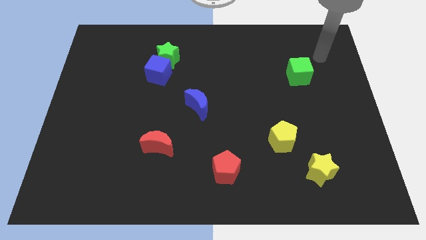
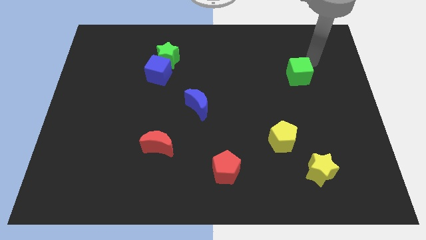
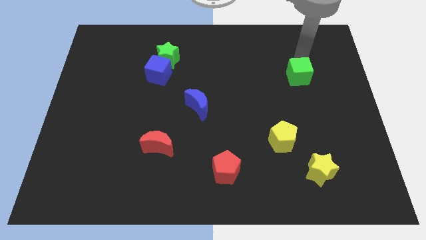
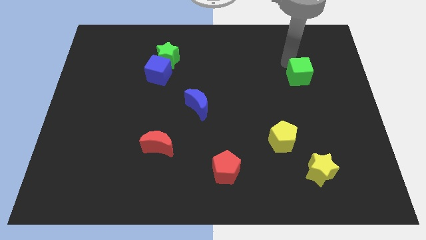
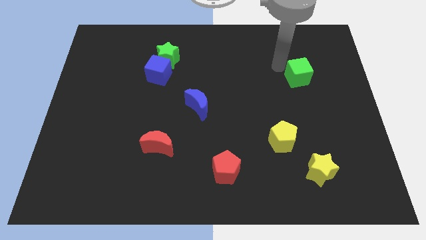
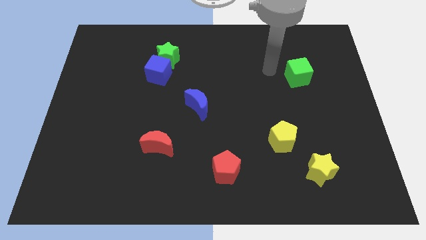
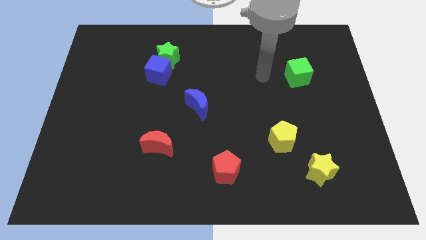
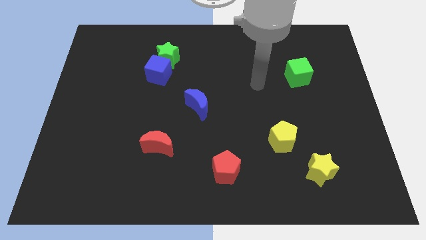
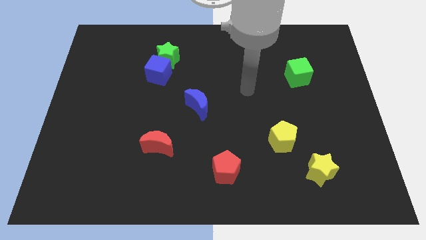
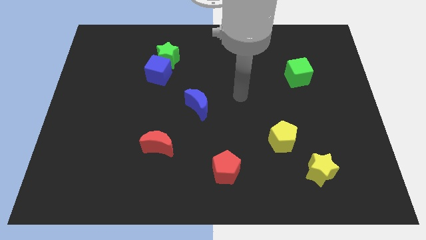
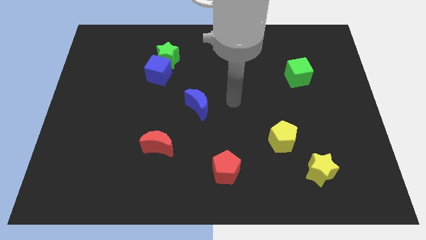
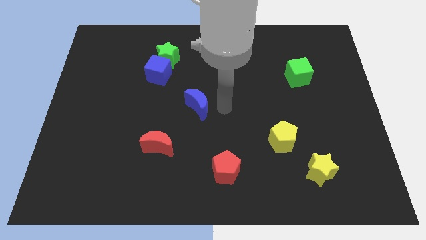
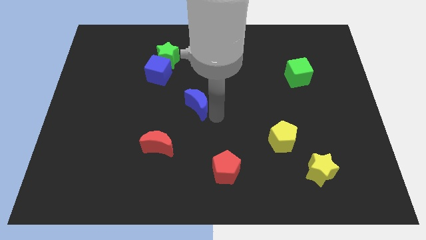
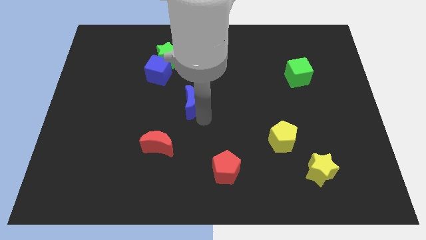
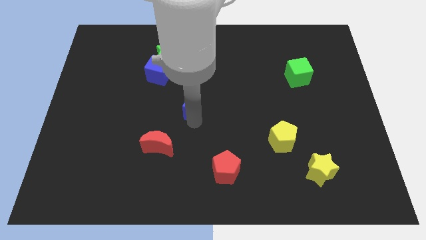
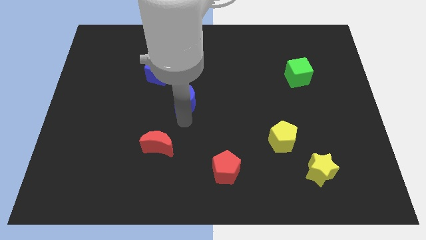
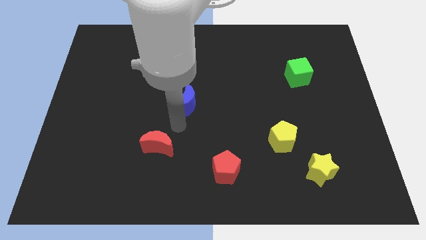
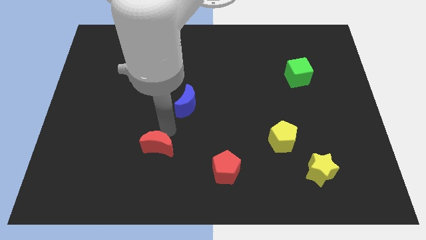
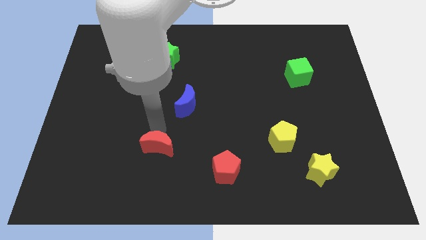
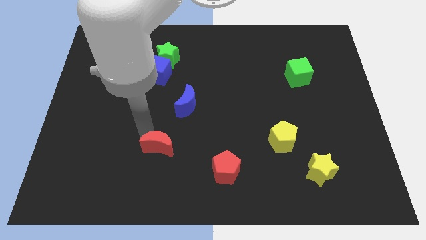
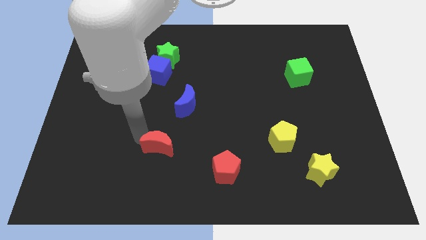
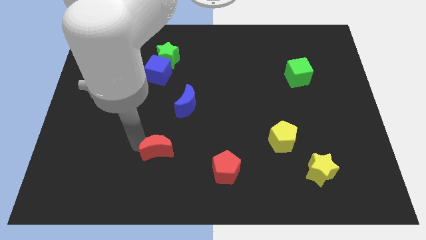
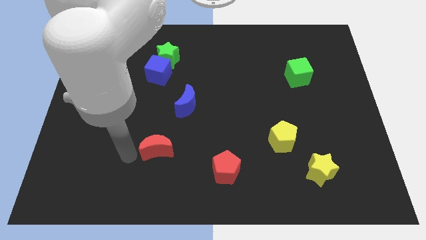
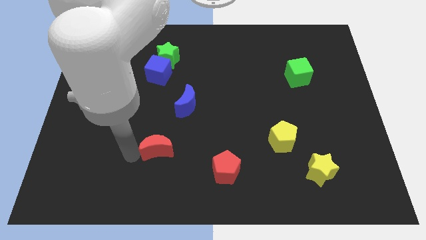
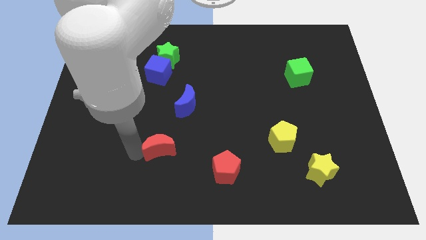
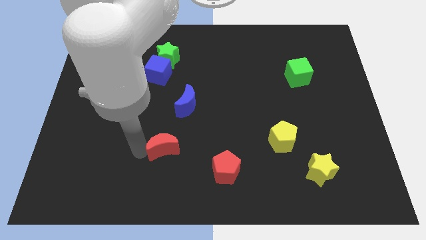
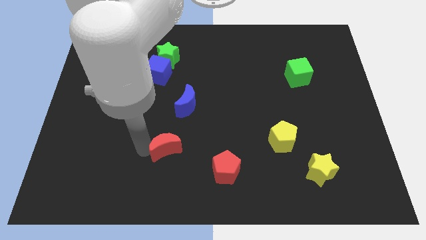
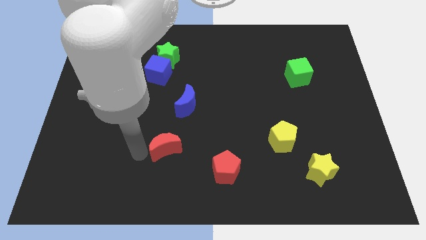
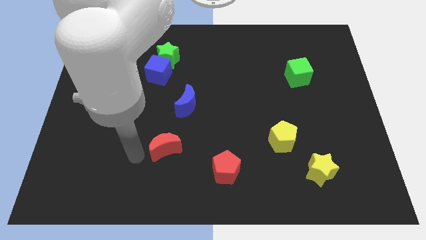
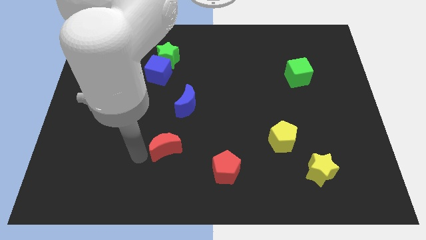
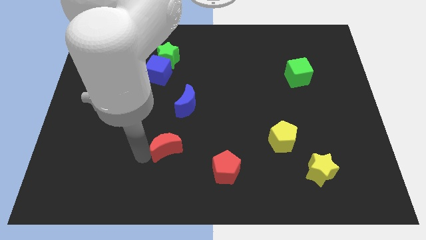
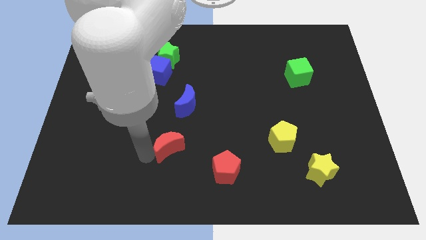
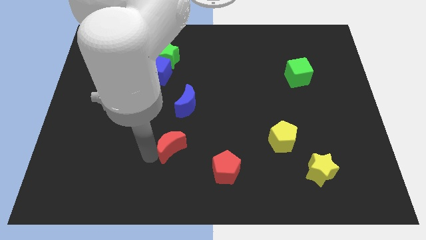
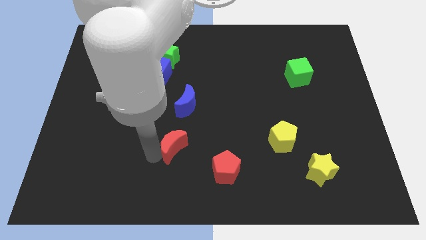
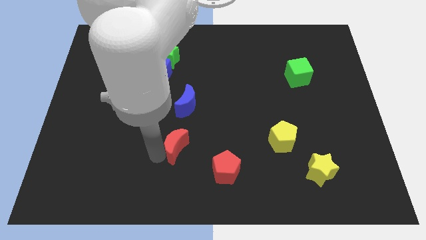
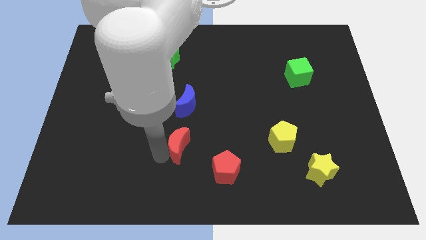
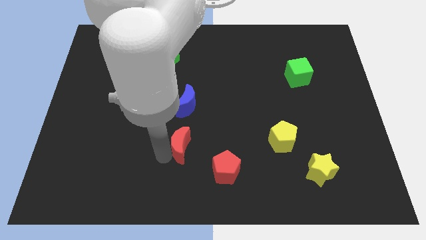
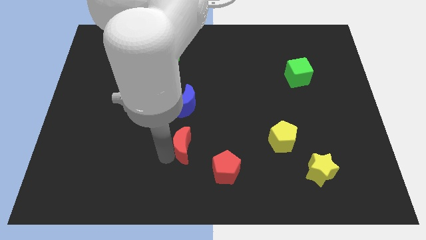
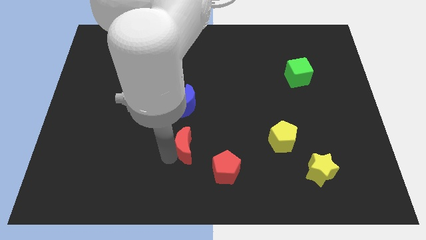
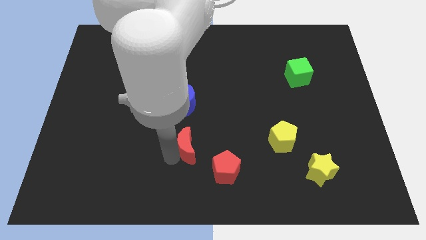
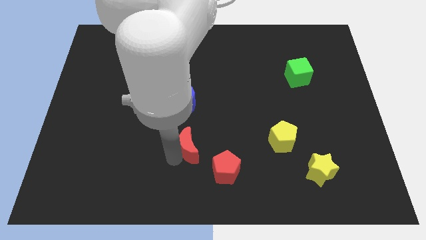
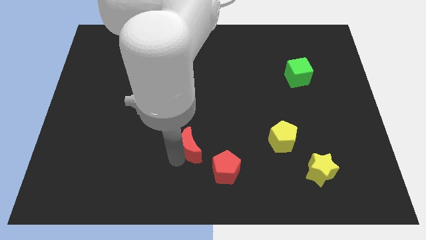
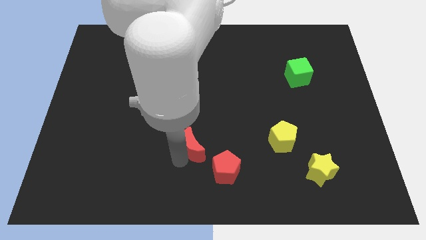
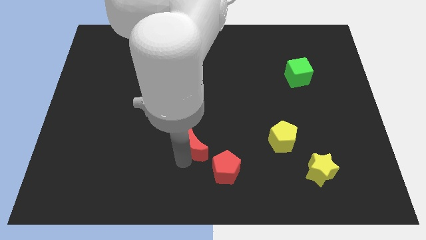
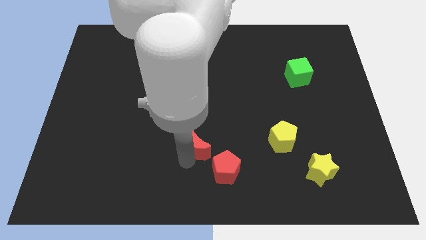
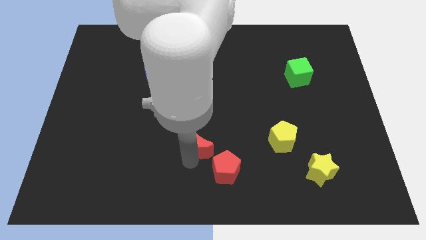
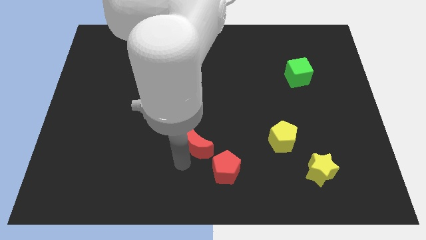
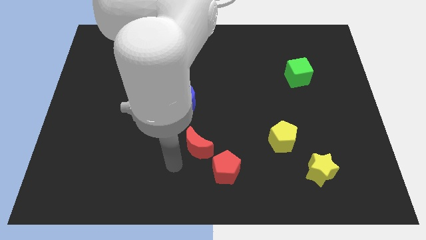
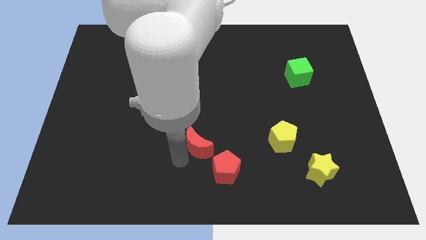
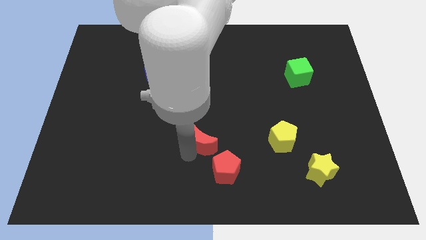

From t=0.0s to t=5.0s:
move the red moon above the red pentagon

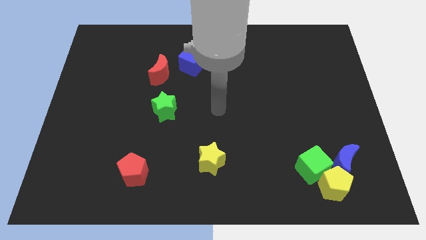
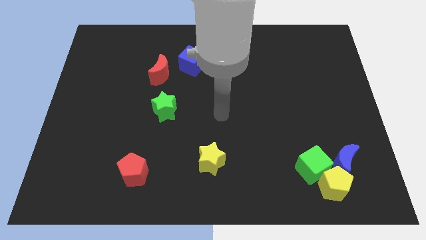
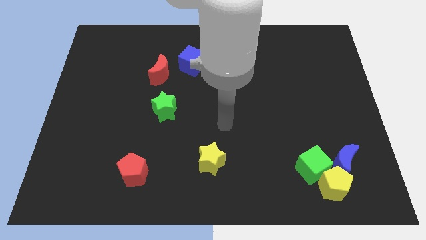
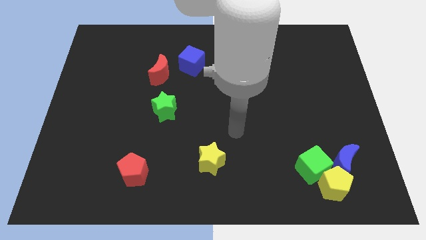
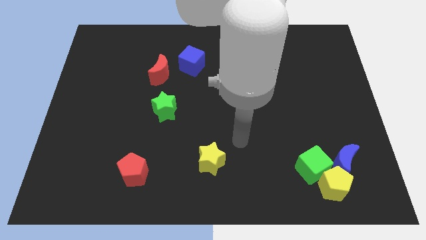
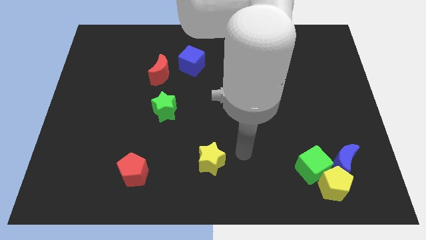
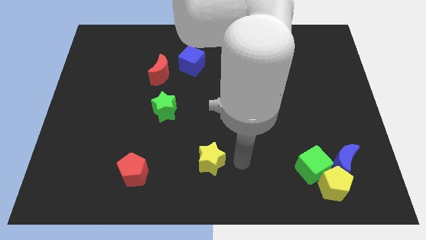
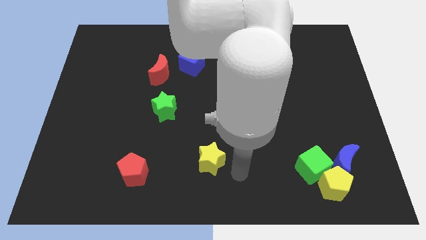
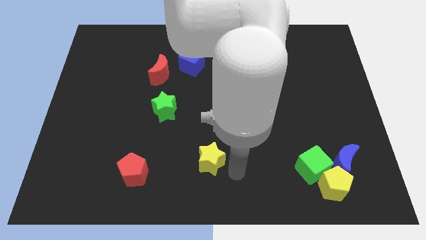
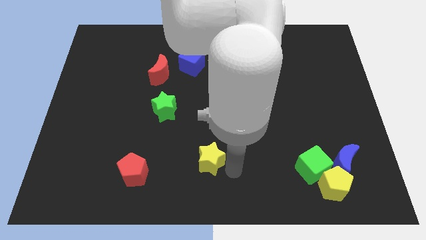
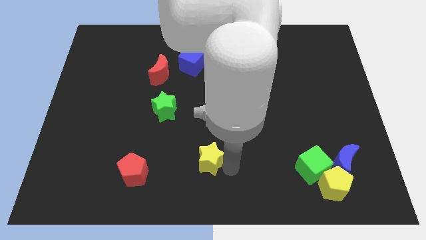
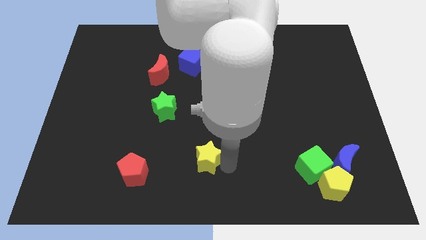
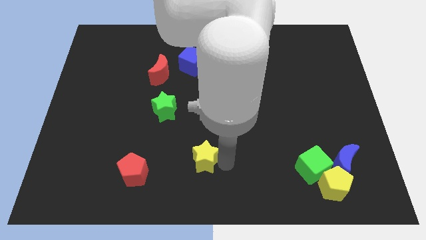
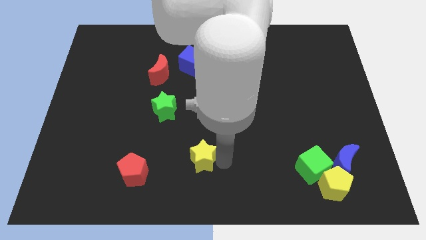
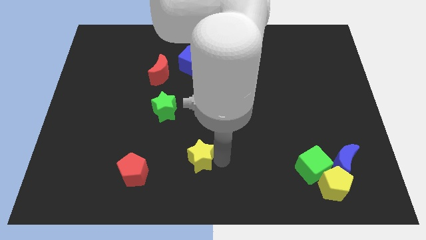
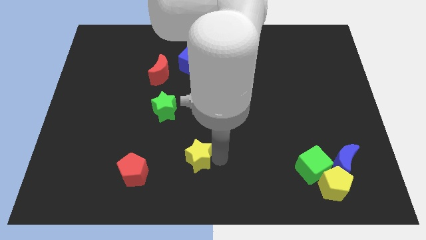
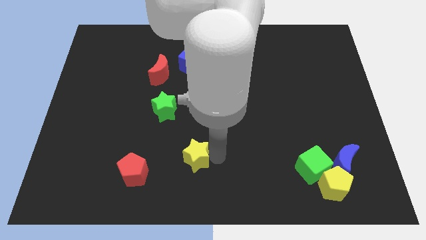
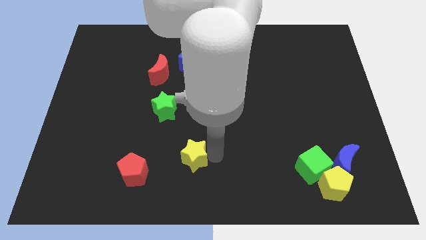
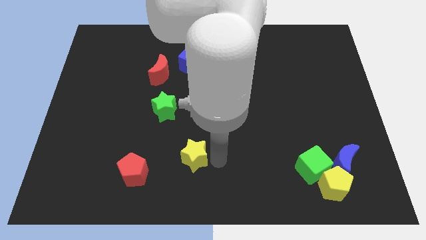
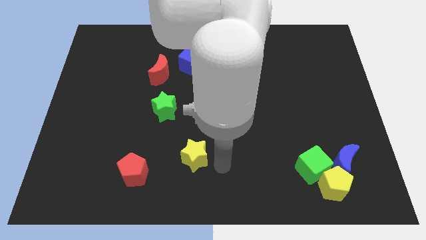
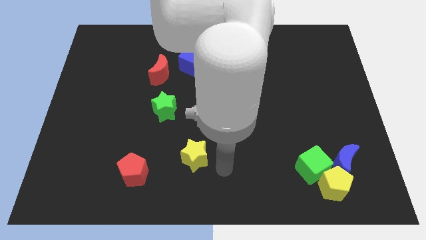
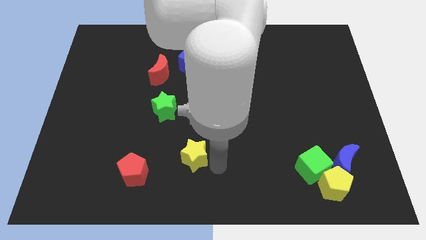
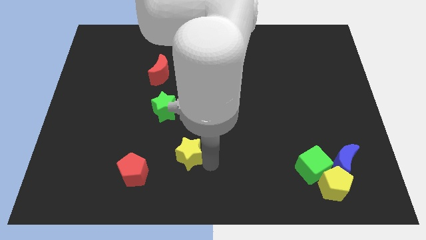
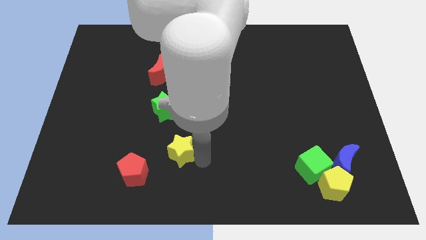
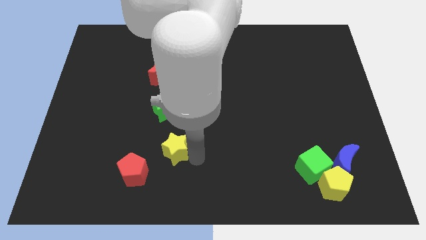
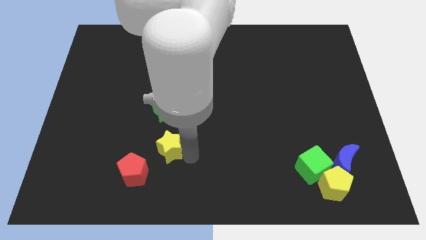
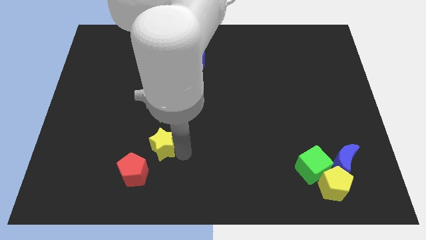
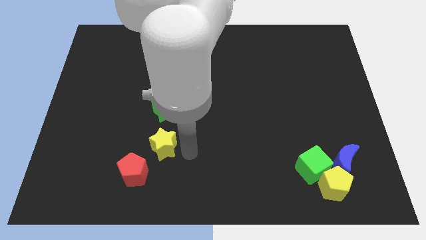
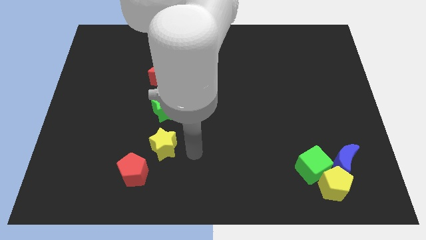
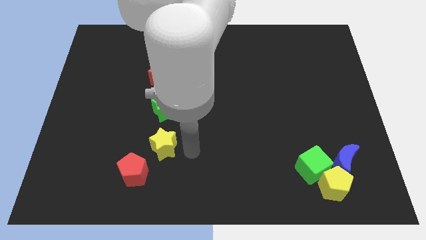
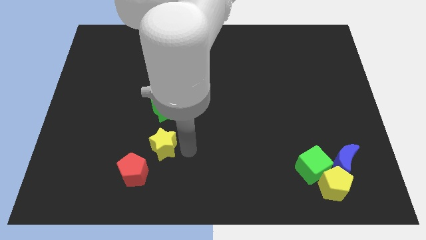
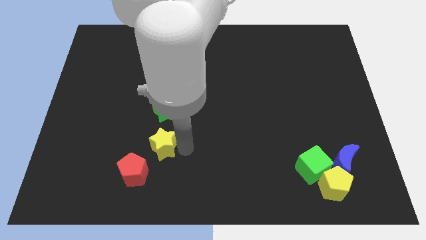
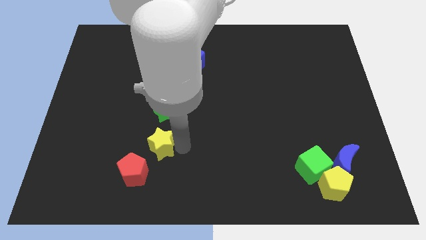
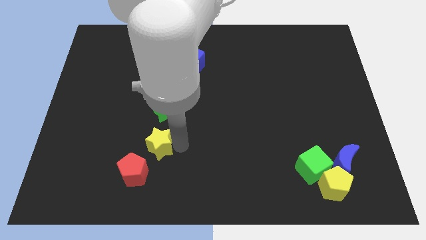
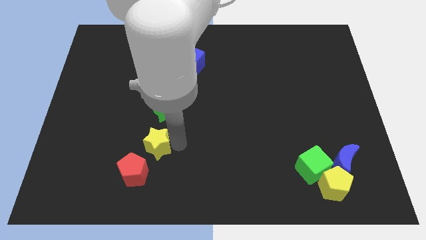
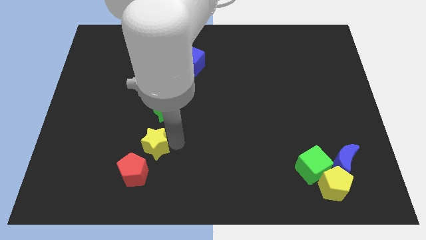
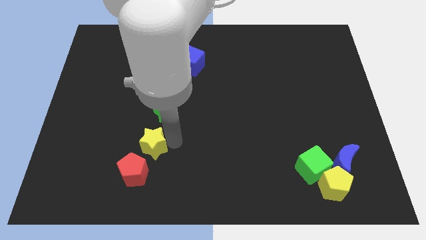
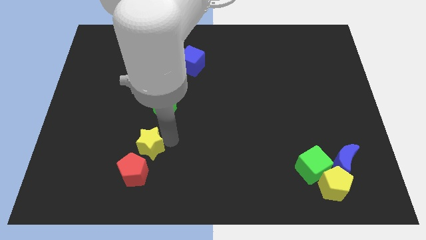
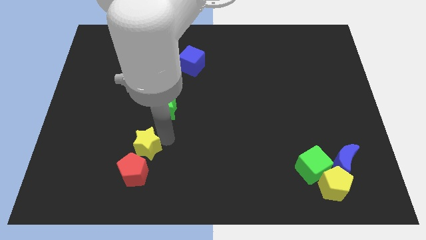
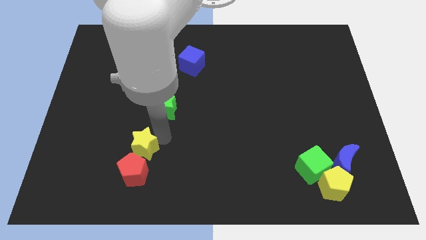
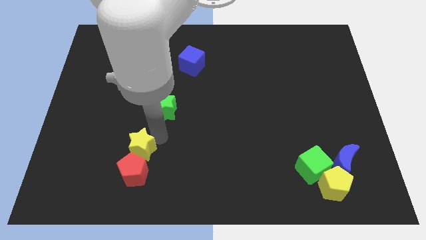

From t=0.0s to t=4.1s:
slide the yellow star to the top left side of the red pentagon
